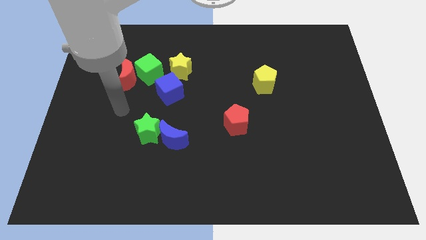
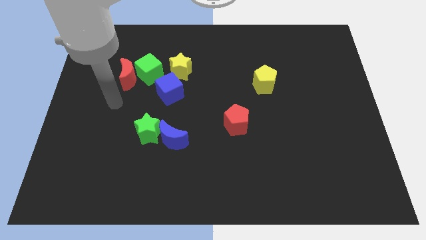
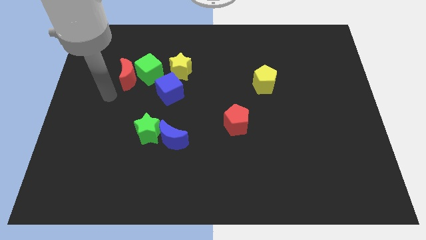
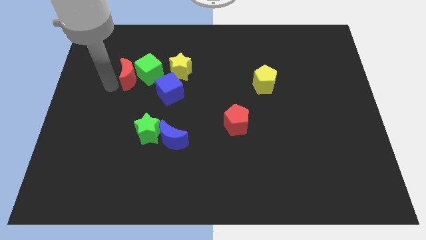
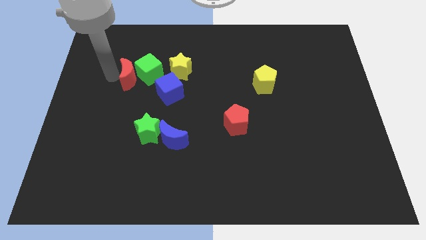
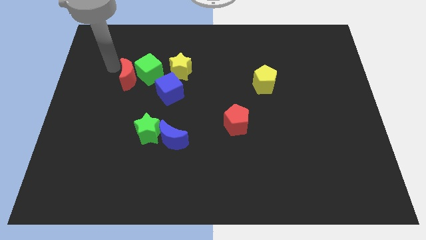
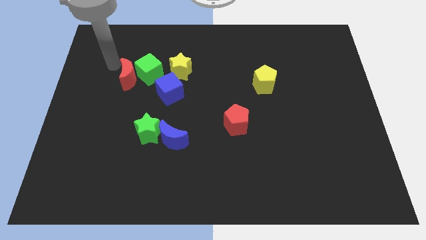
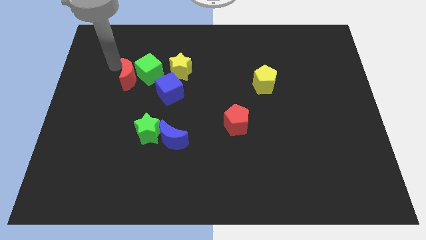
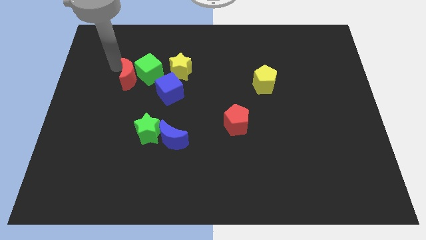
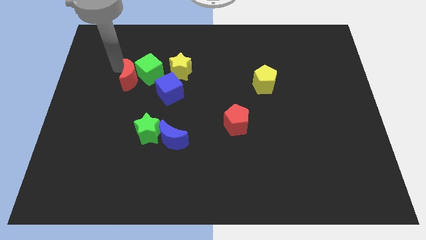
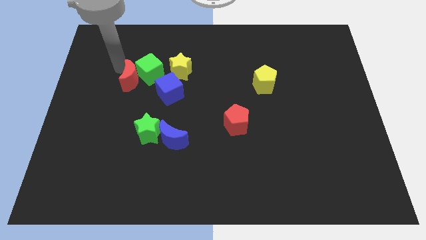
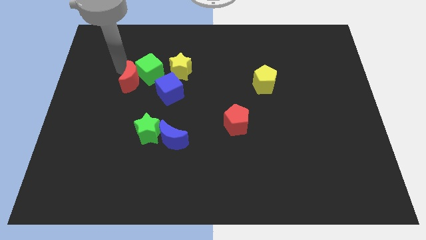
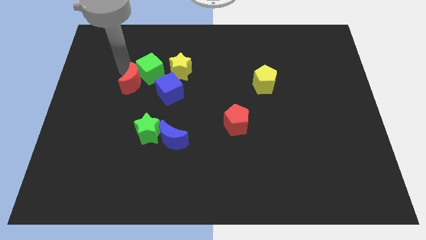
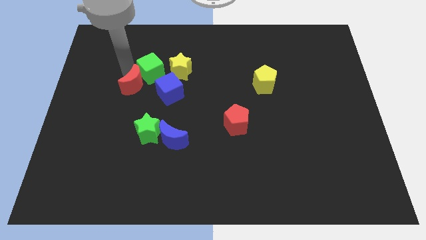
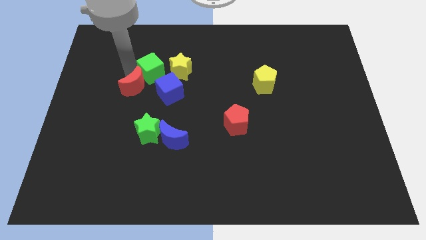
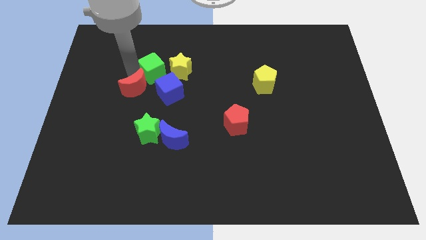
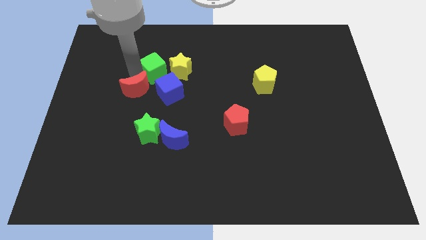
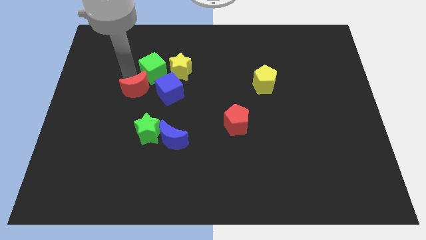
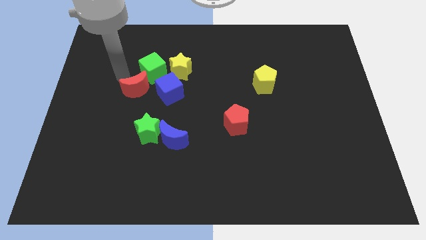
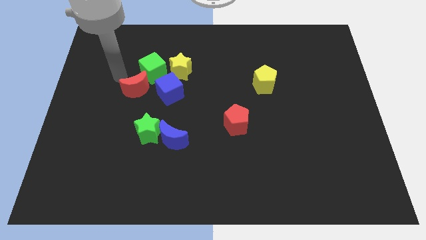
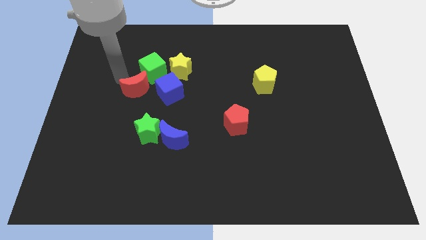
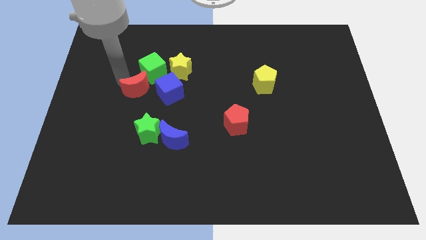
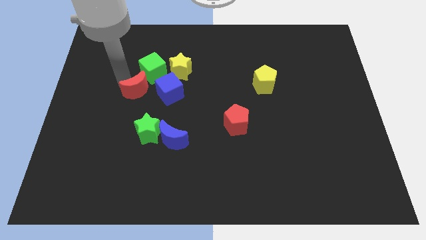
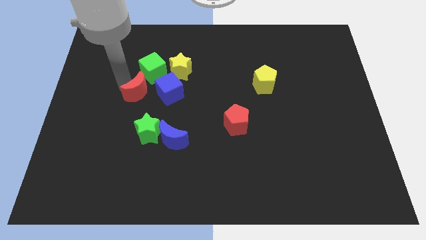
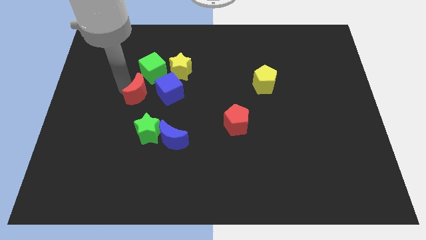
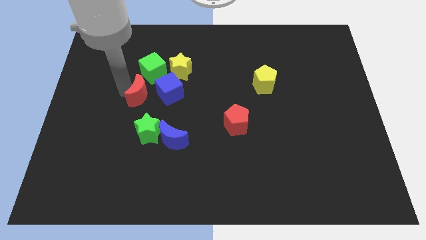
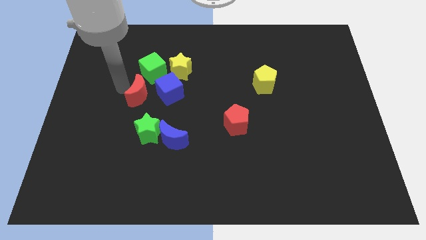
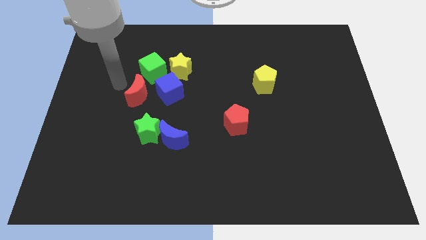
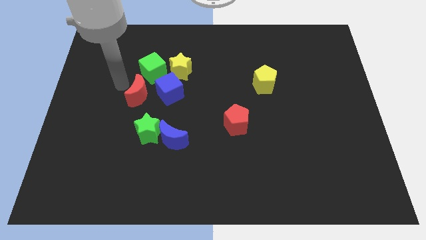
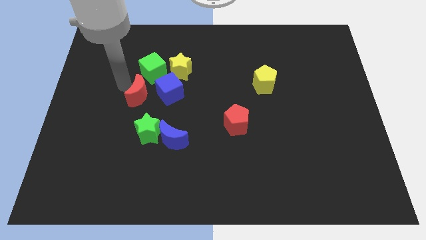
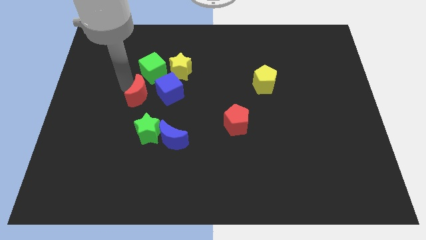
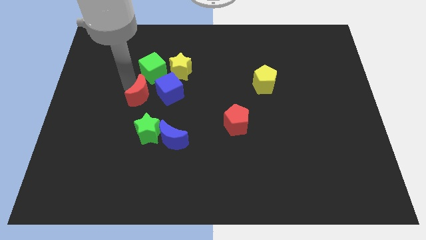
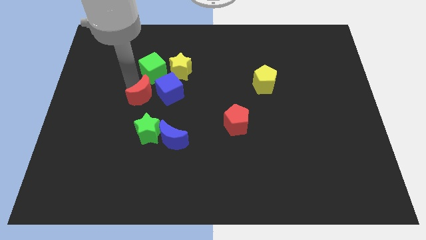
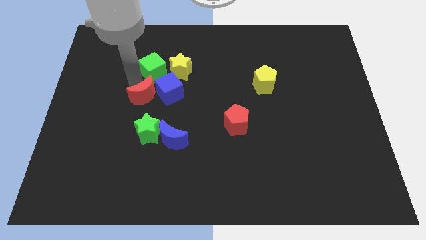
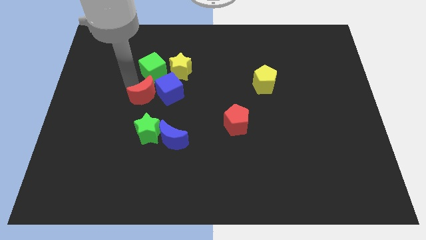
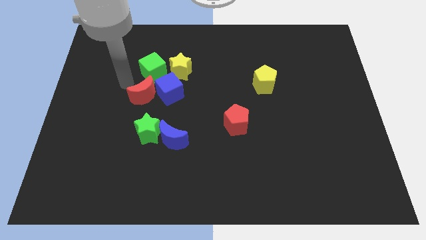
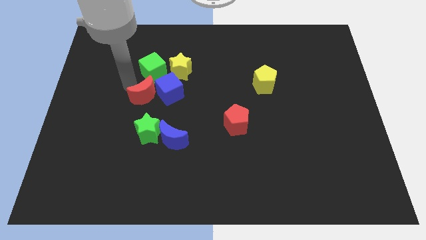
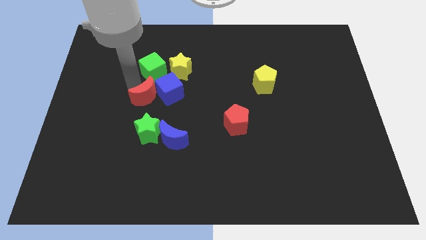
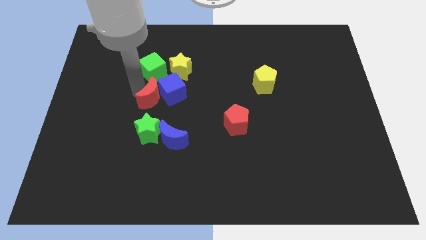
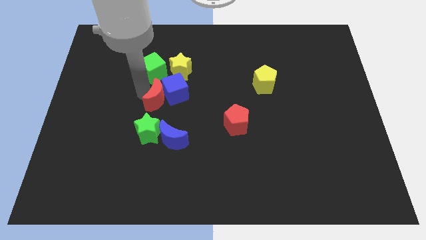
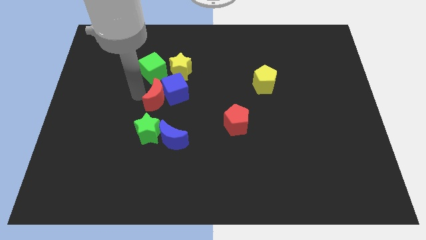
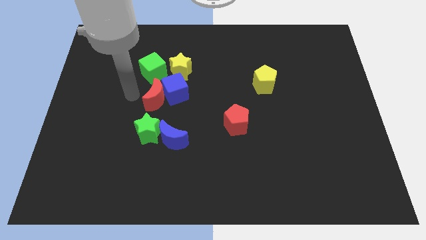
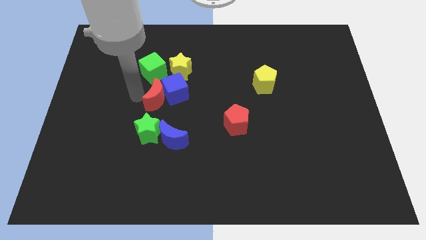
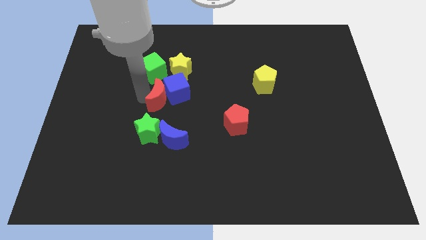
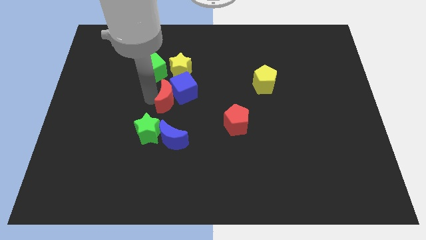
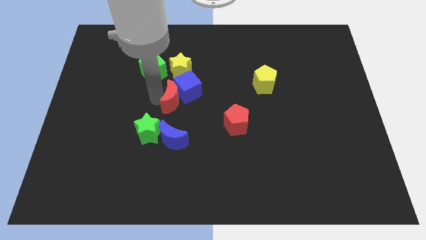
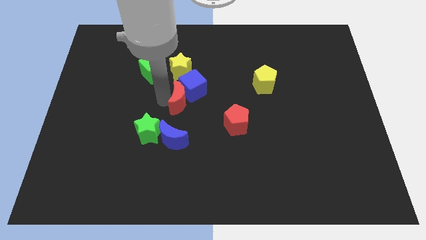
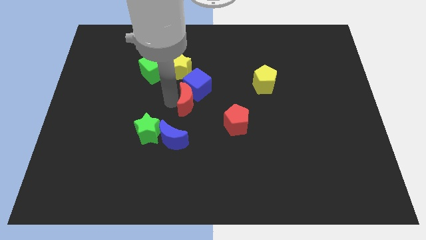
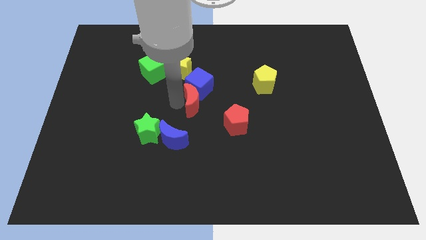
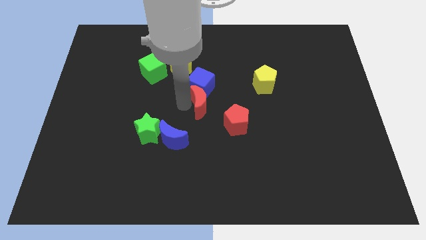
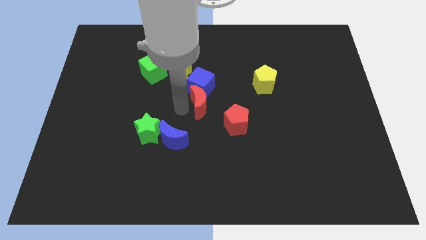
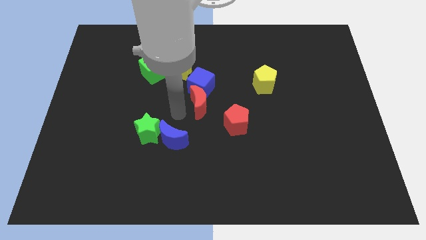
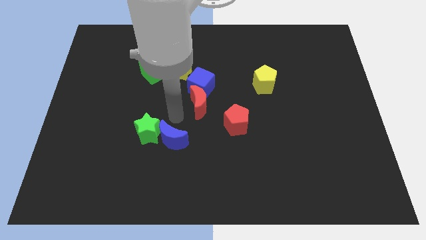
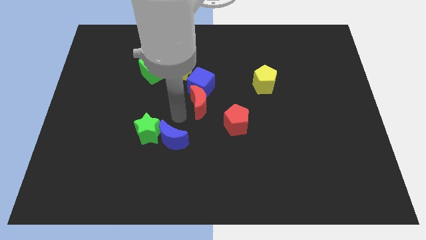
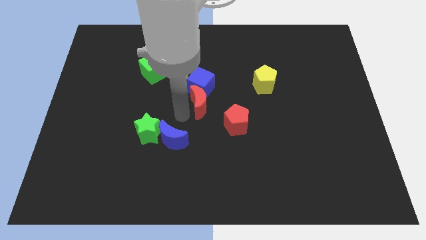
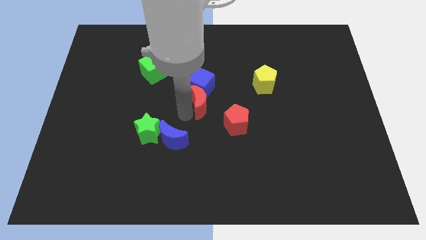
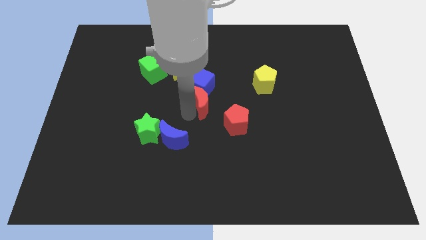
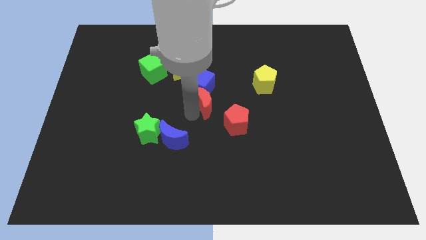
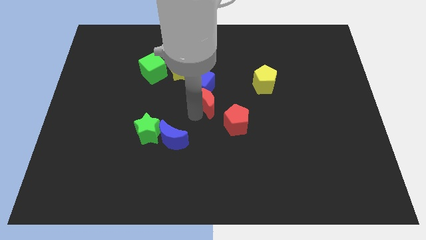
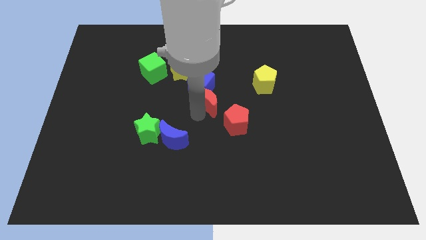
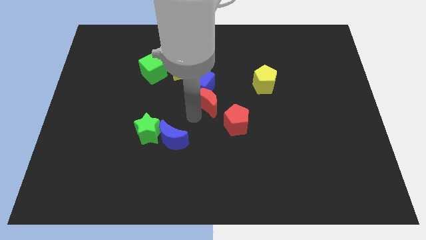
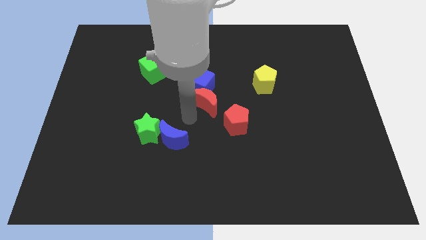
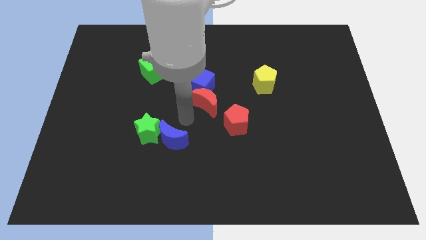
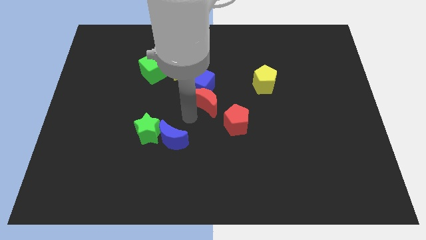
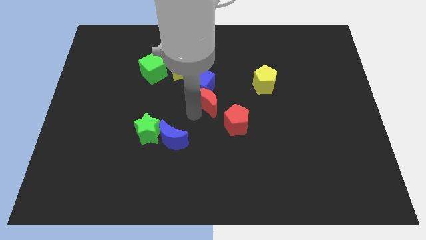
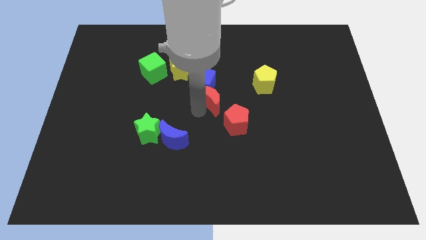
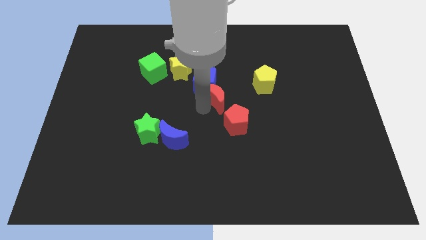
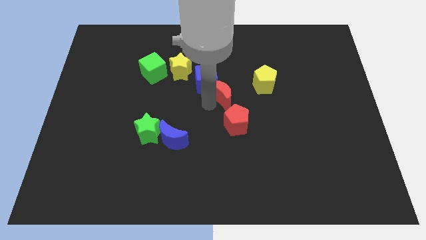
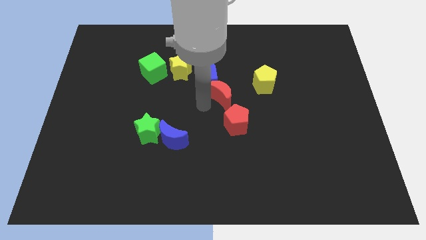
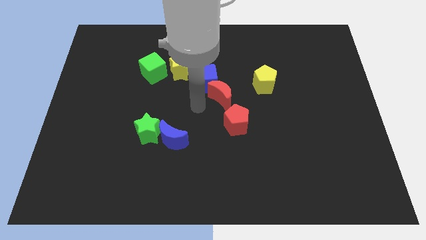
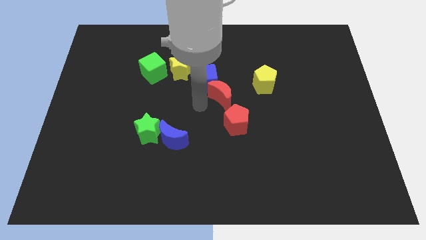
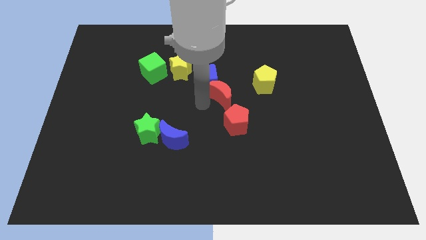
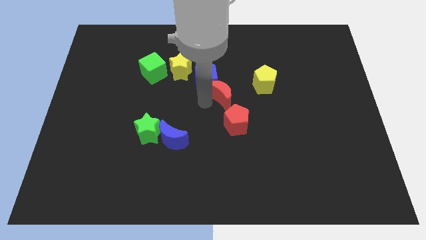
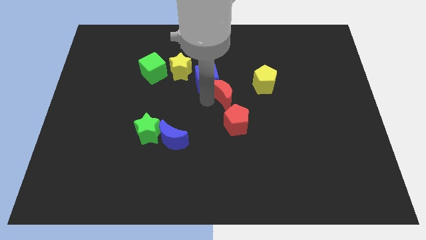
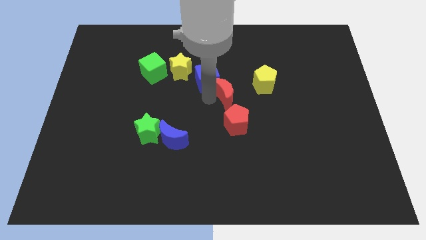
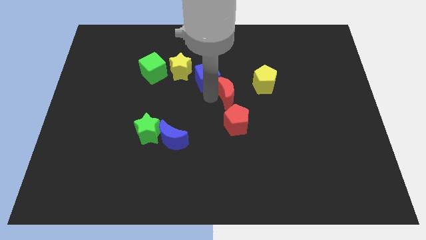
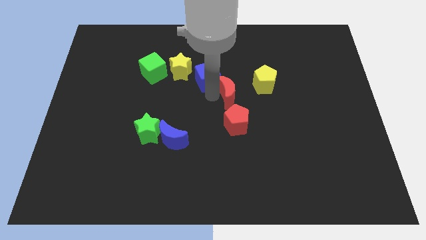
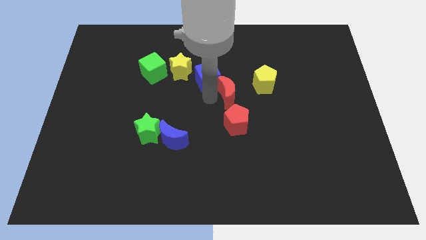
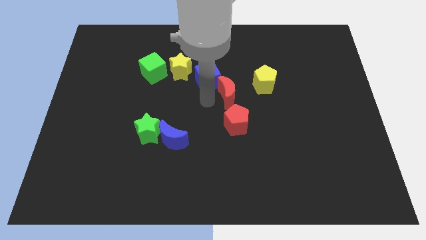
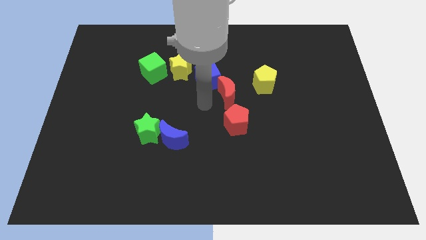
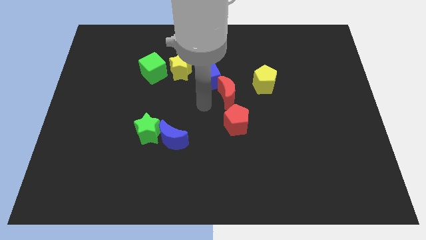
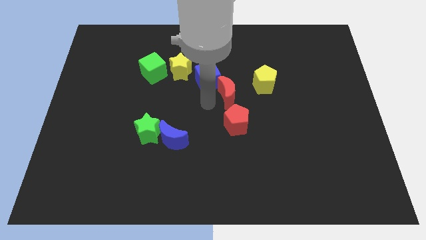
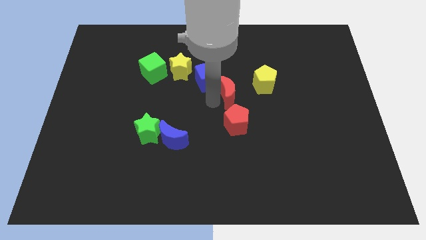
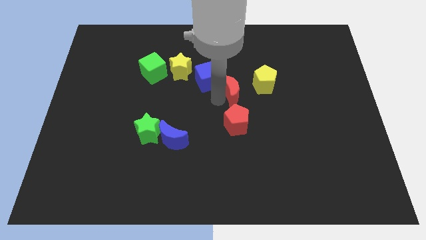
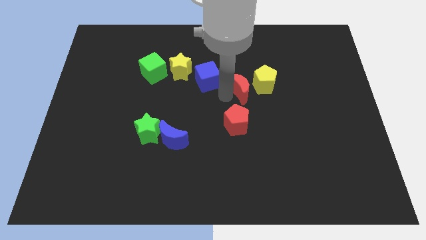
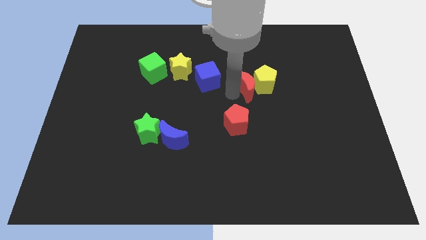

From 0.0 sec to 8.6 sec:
slide the red moon next to the yellow pentagon
